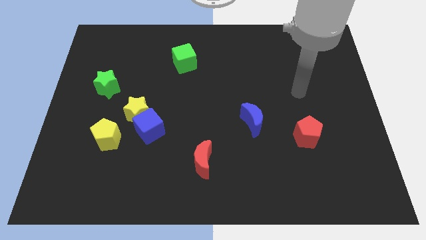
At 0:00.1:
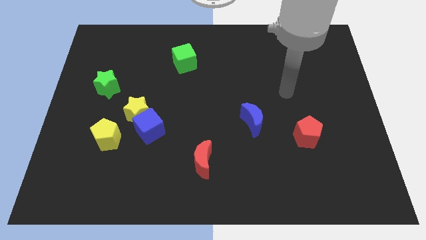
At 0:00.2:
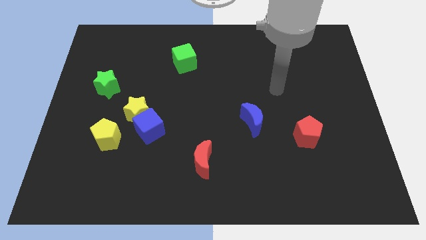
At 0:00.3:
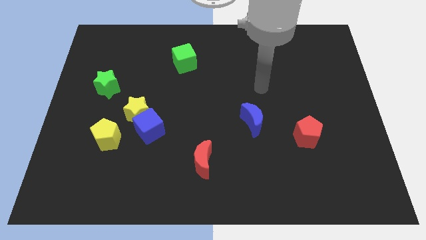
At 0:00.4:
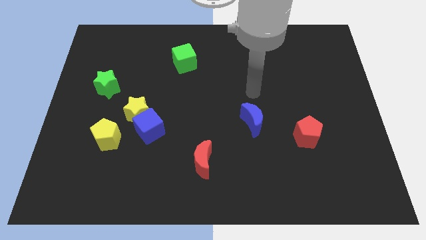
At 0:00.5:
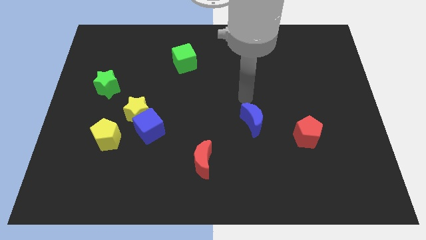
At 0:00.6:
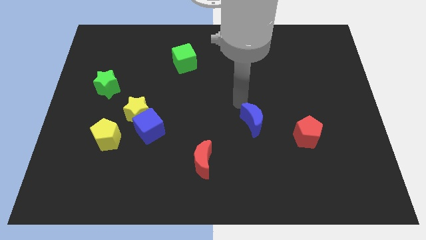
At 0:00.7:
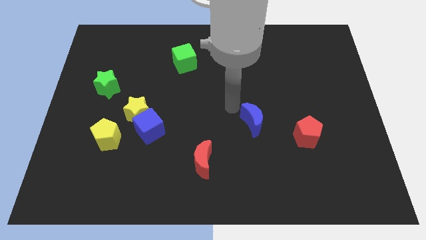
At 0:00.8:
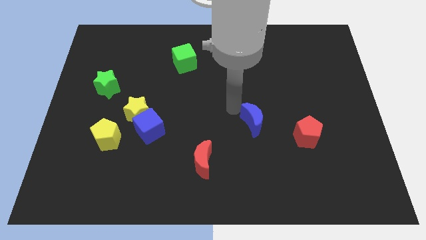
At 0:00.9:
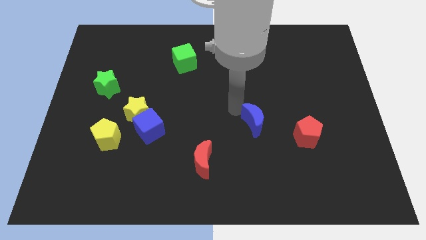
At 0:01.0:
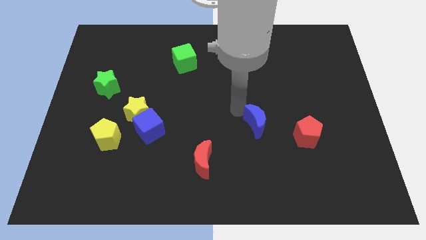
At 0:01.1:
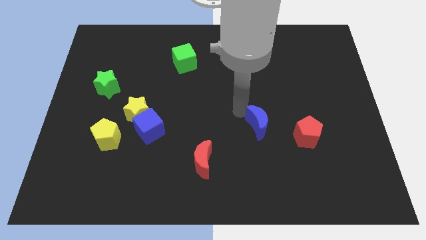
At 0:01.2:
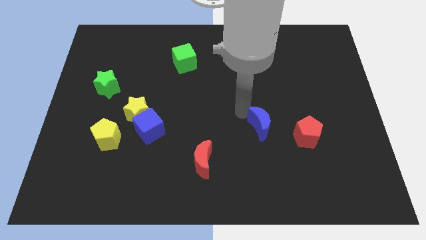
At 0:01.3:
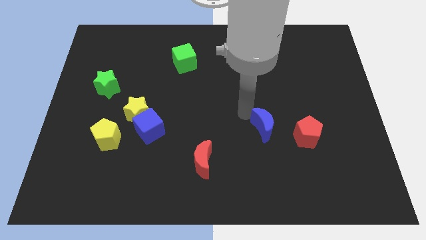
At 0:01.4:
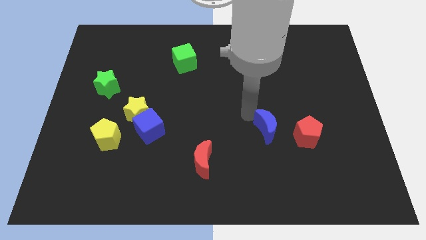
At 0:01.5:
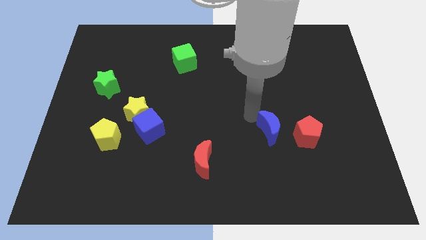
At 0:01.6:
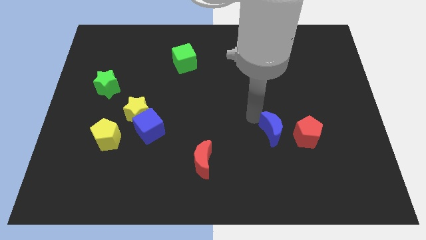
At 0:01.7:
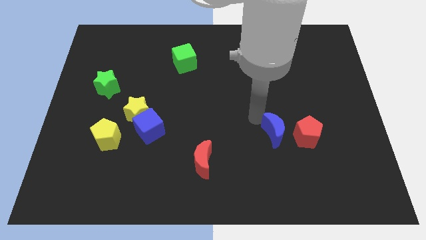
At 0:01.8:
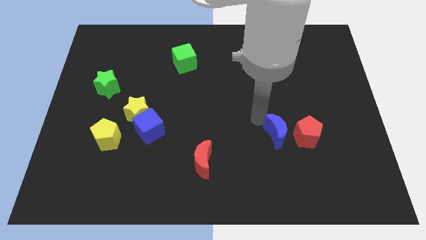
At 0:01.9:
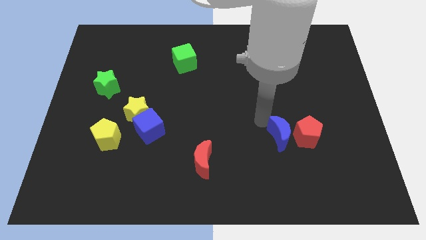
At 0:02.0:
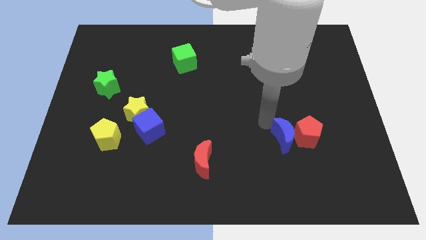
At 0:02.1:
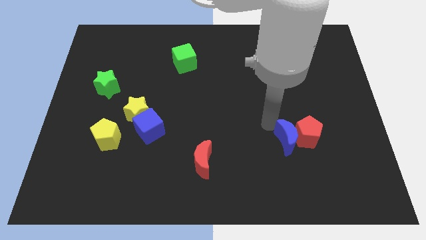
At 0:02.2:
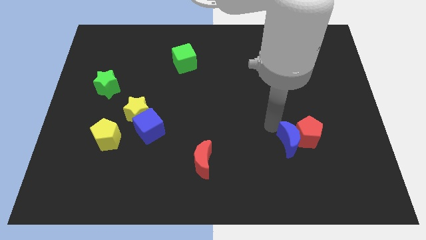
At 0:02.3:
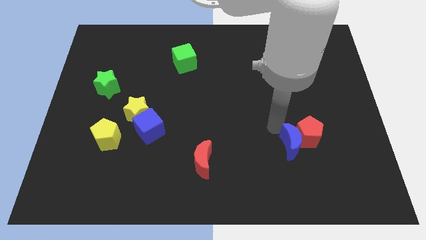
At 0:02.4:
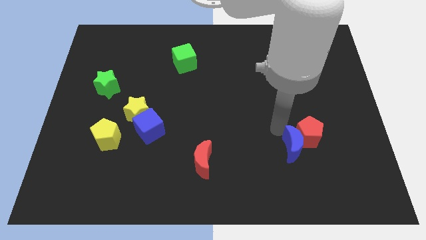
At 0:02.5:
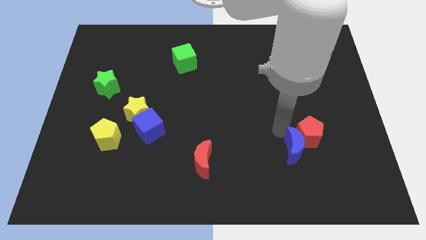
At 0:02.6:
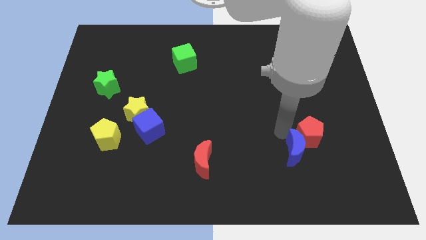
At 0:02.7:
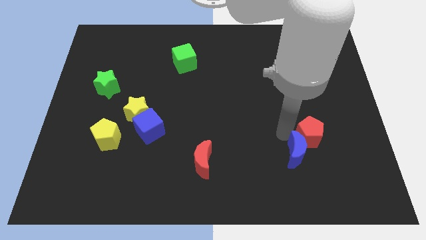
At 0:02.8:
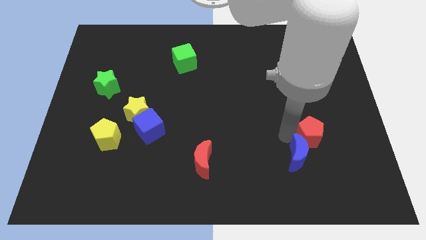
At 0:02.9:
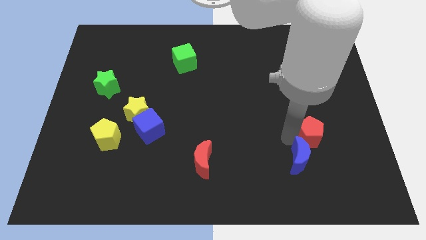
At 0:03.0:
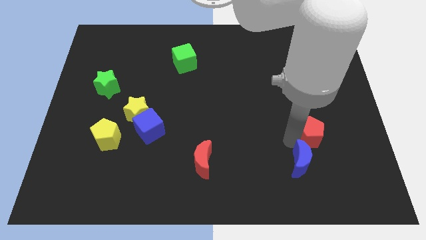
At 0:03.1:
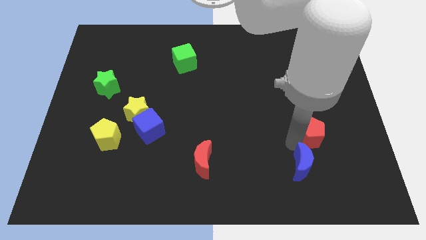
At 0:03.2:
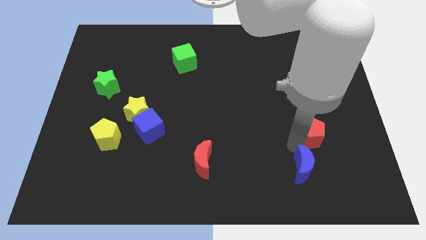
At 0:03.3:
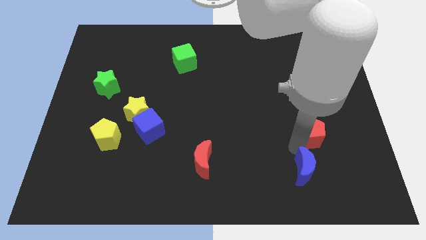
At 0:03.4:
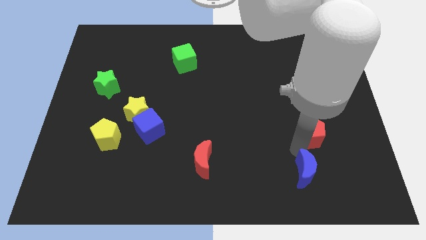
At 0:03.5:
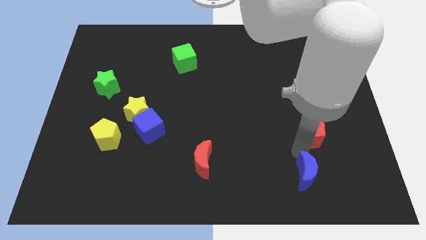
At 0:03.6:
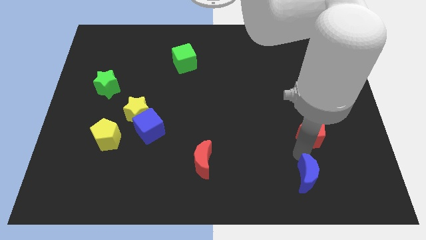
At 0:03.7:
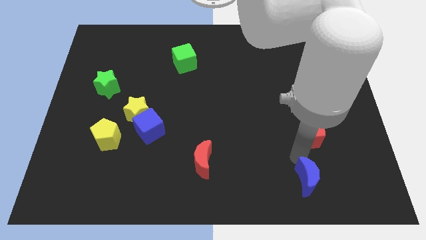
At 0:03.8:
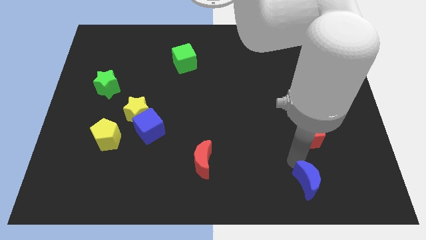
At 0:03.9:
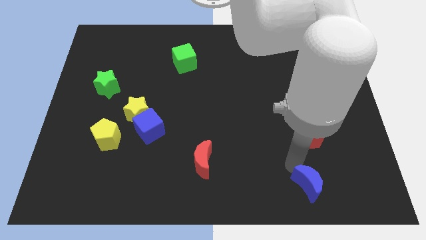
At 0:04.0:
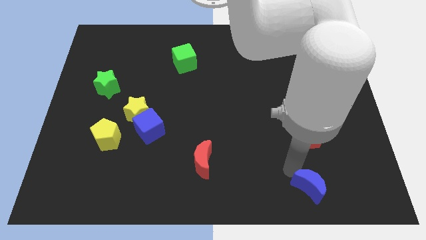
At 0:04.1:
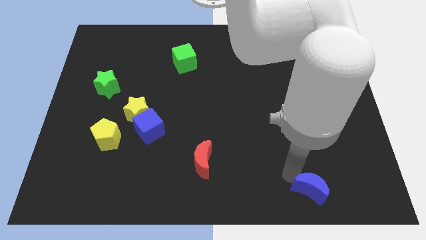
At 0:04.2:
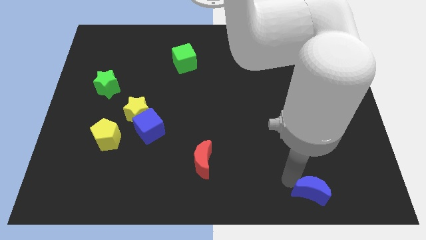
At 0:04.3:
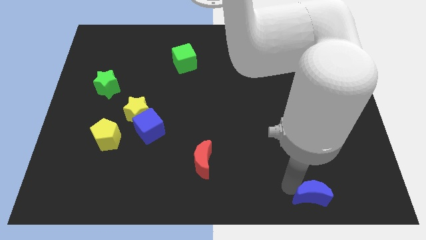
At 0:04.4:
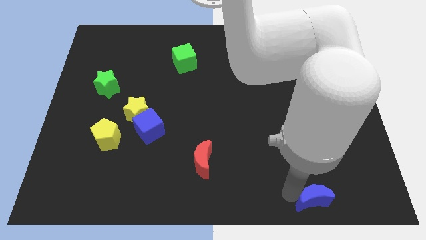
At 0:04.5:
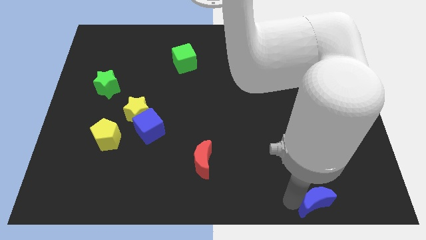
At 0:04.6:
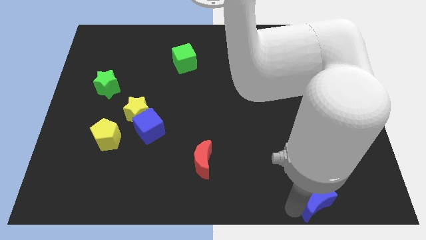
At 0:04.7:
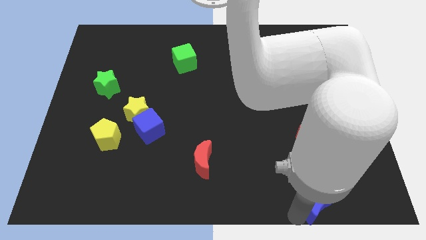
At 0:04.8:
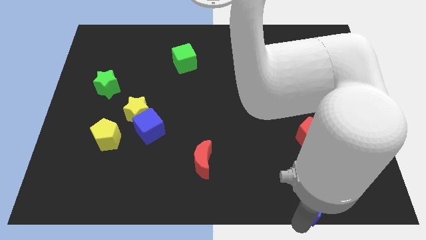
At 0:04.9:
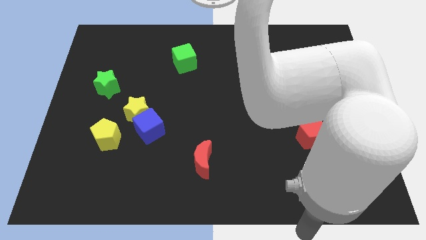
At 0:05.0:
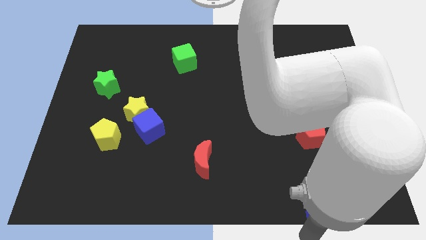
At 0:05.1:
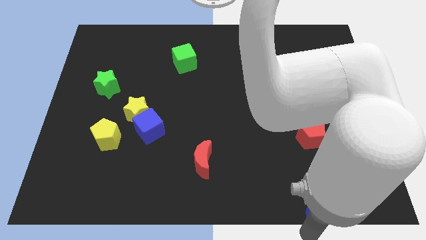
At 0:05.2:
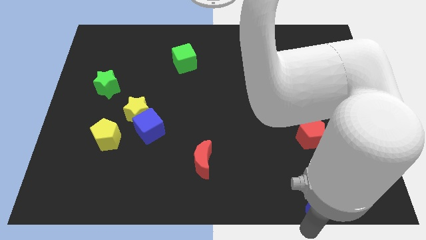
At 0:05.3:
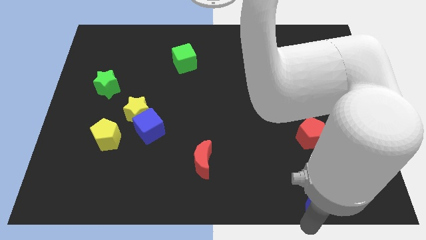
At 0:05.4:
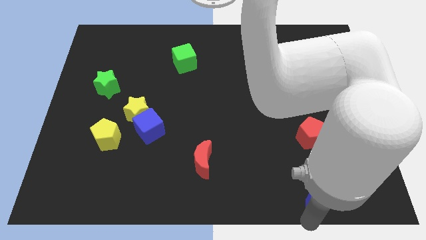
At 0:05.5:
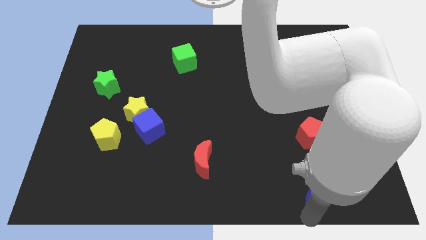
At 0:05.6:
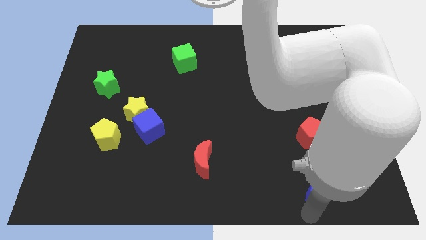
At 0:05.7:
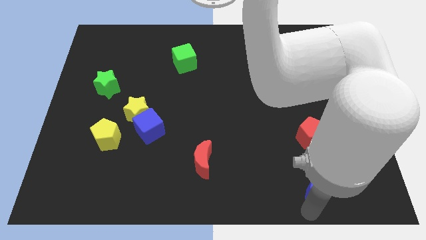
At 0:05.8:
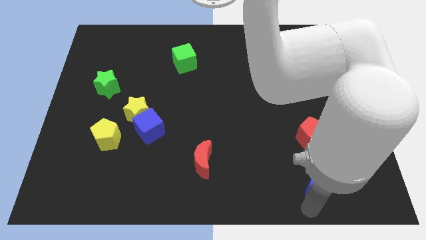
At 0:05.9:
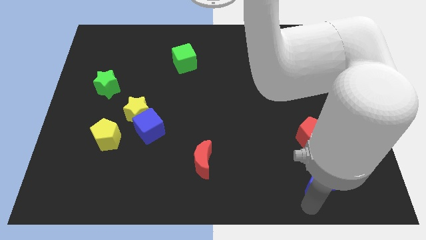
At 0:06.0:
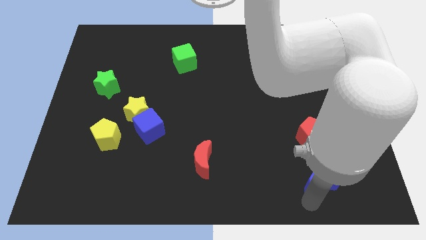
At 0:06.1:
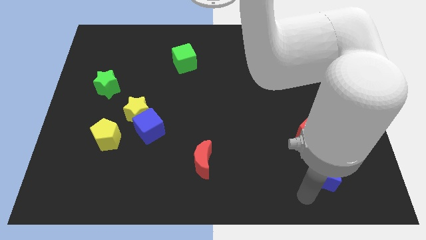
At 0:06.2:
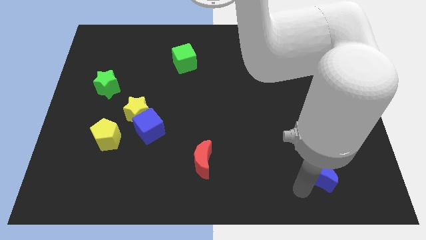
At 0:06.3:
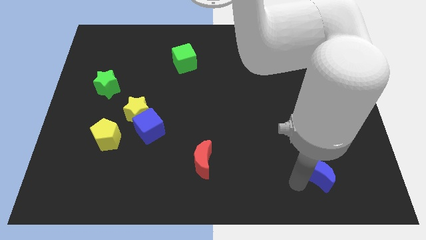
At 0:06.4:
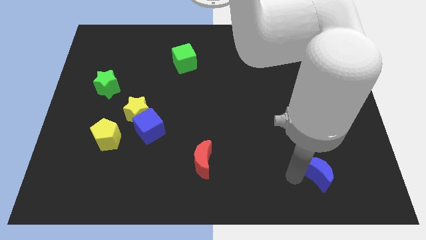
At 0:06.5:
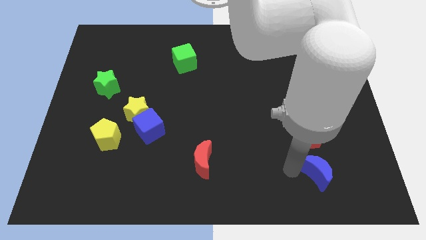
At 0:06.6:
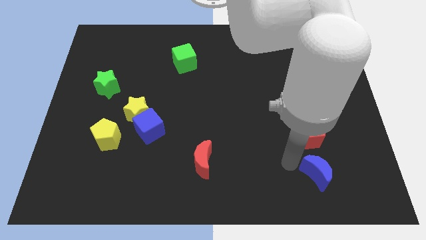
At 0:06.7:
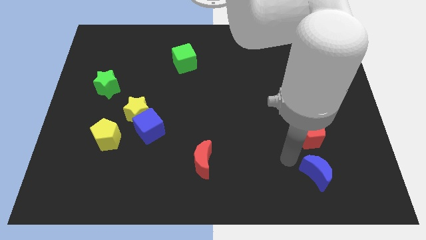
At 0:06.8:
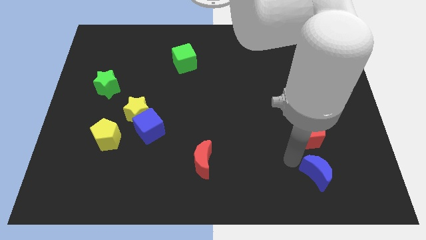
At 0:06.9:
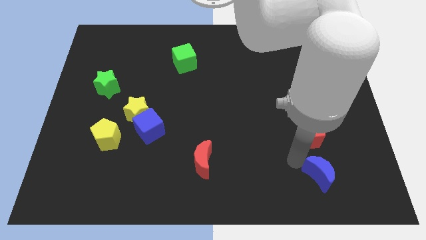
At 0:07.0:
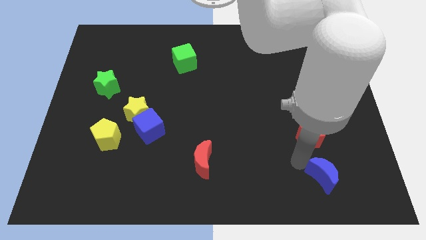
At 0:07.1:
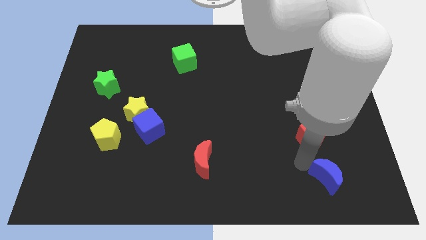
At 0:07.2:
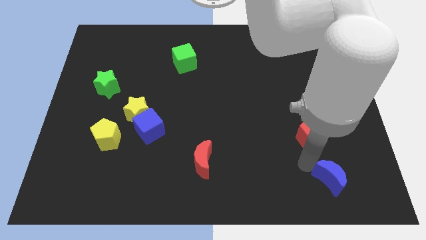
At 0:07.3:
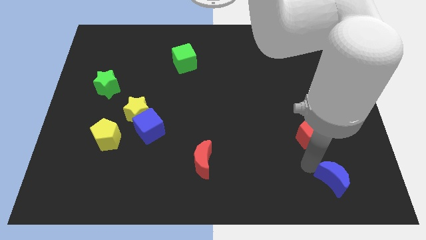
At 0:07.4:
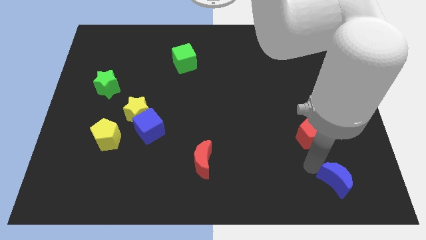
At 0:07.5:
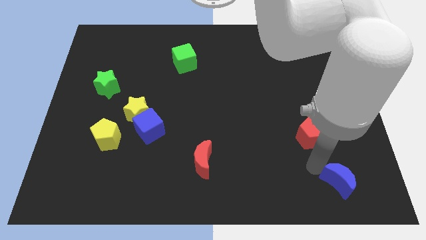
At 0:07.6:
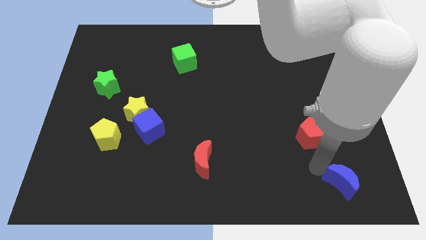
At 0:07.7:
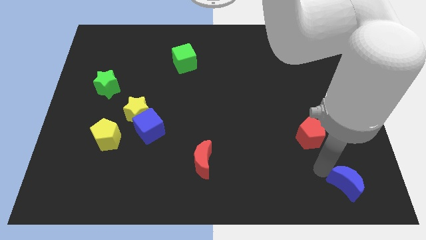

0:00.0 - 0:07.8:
slide the blue moon to the lower right corner

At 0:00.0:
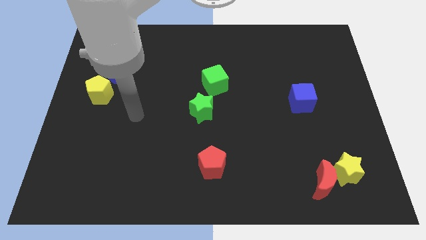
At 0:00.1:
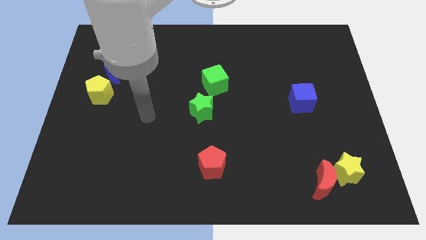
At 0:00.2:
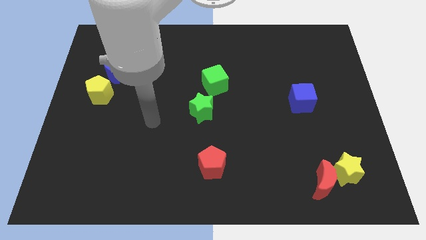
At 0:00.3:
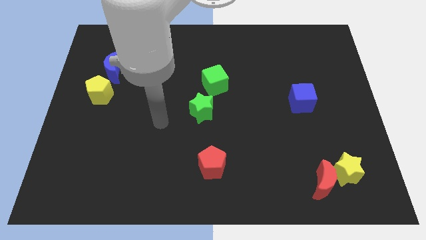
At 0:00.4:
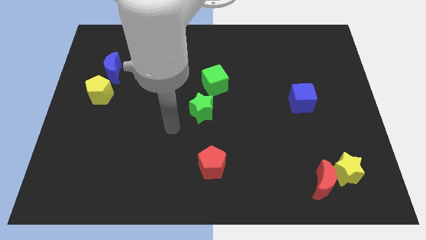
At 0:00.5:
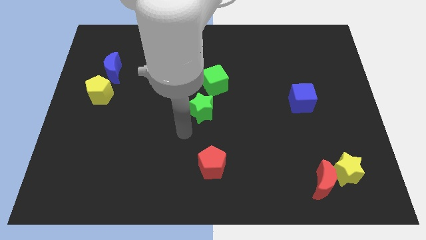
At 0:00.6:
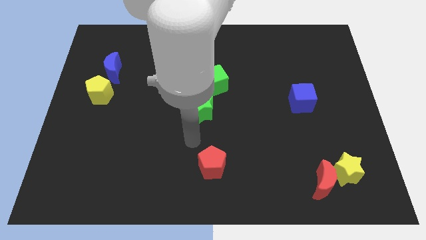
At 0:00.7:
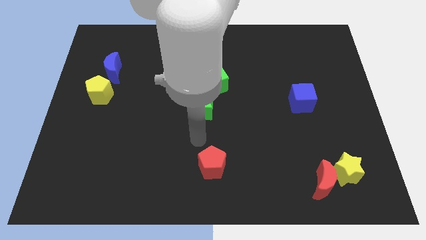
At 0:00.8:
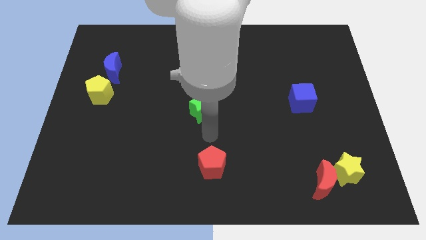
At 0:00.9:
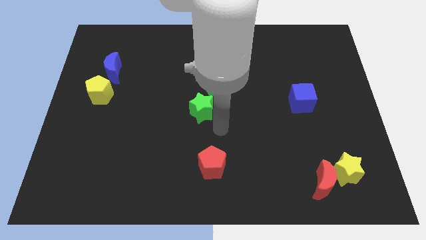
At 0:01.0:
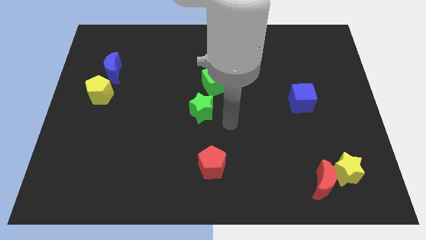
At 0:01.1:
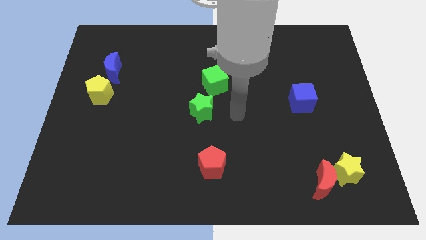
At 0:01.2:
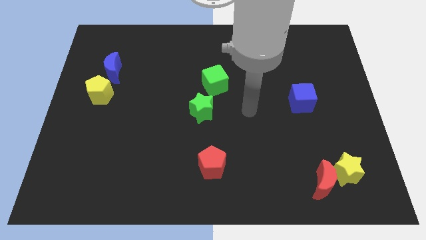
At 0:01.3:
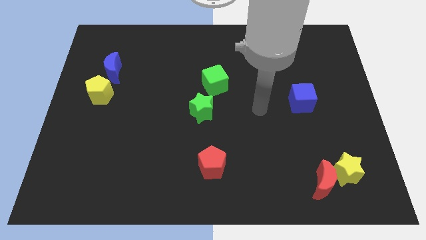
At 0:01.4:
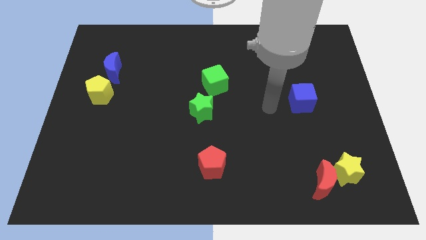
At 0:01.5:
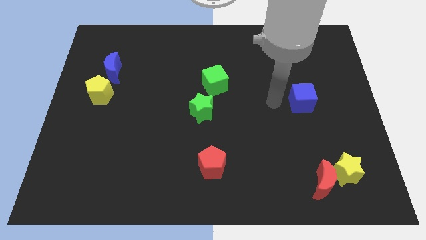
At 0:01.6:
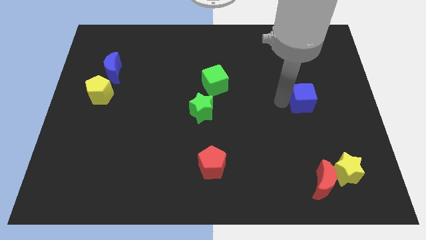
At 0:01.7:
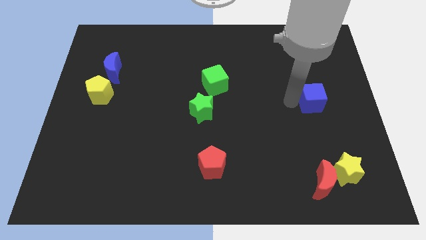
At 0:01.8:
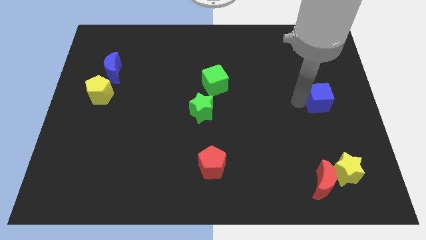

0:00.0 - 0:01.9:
slide the blue cube to the right side of the board
